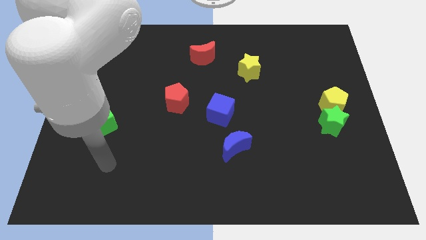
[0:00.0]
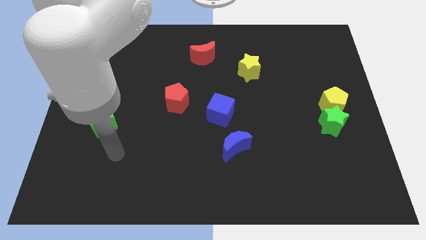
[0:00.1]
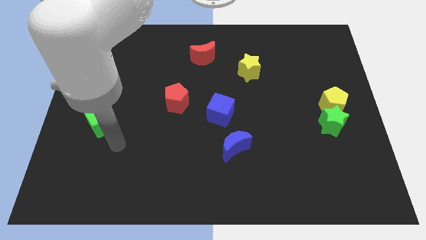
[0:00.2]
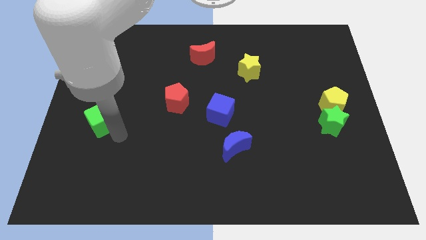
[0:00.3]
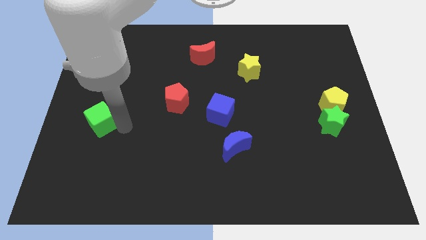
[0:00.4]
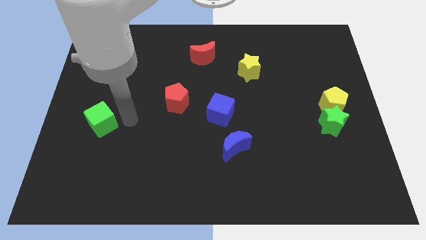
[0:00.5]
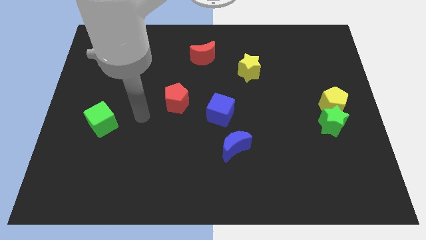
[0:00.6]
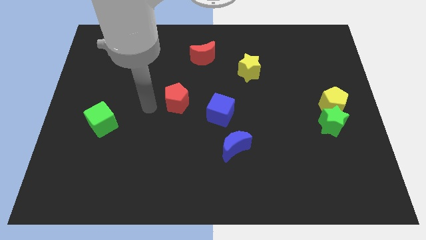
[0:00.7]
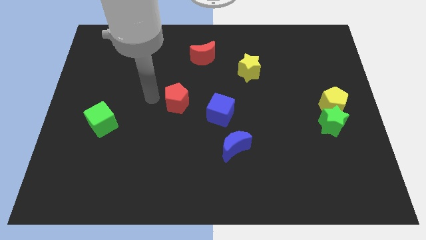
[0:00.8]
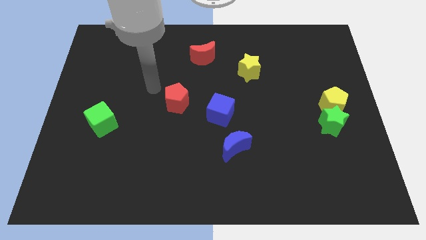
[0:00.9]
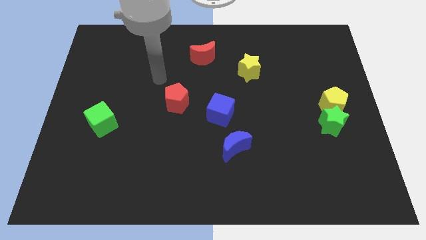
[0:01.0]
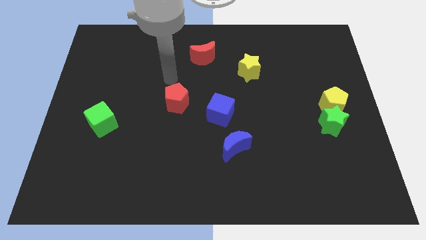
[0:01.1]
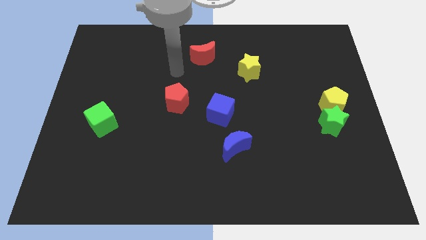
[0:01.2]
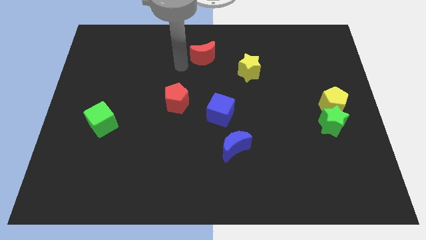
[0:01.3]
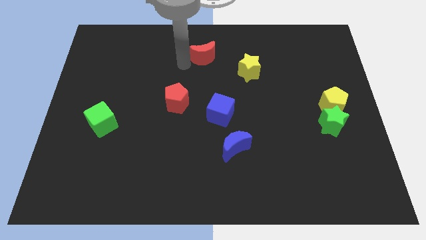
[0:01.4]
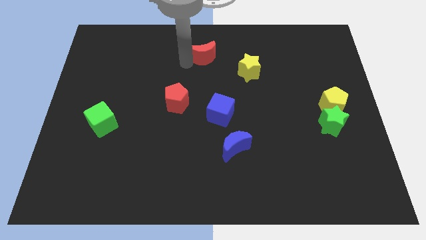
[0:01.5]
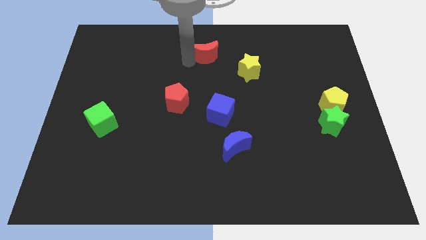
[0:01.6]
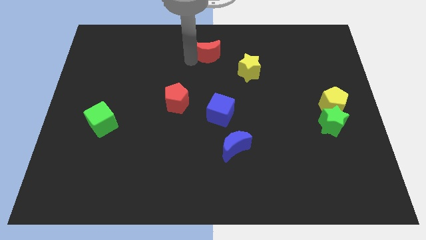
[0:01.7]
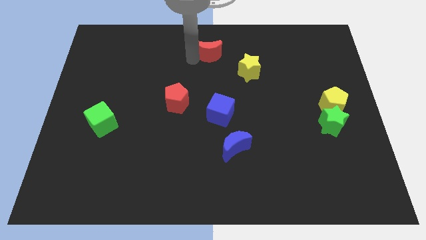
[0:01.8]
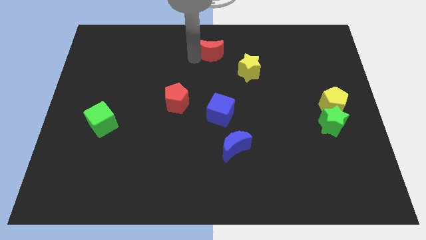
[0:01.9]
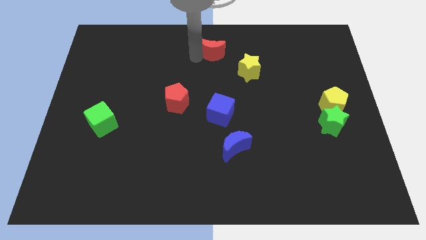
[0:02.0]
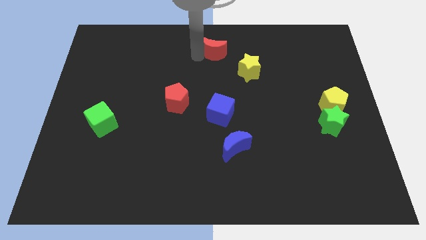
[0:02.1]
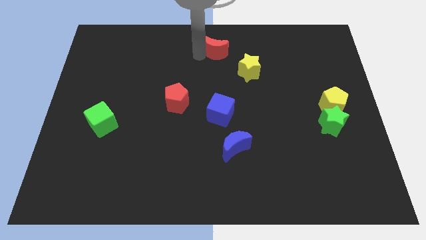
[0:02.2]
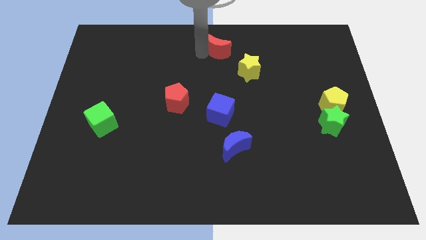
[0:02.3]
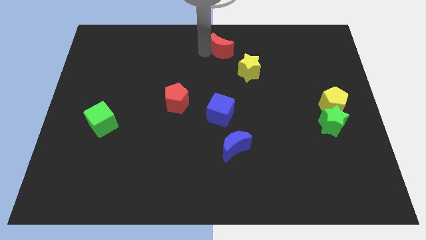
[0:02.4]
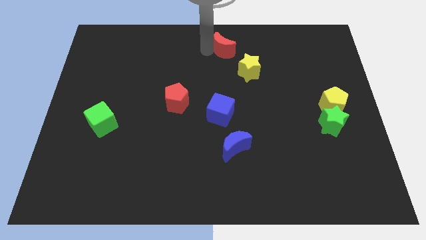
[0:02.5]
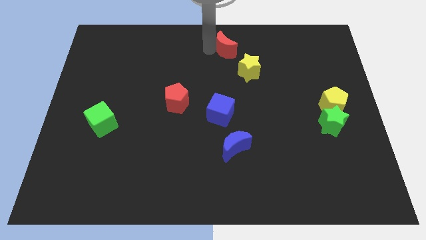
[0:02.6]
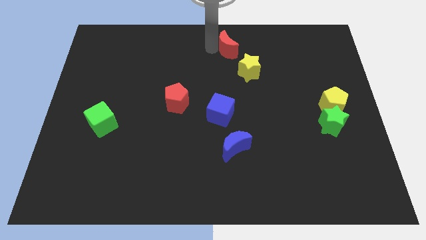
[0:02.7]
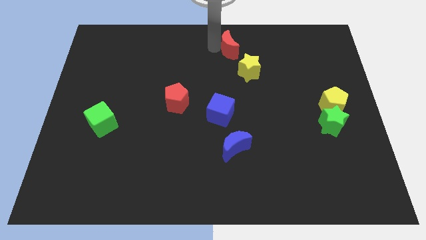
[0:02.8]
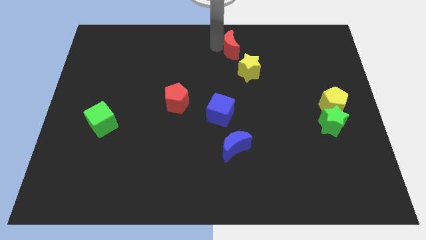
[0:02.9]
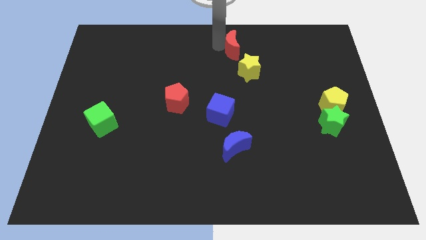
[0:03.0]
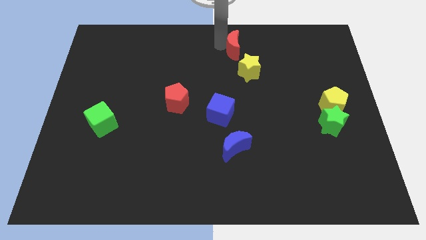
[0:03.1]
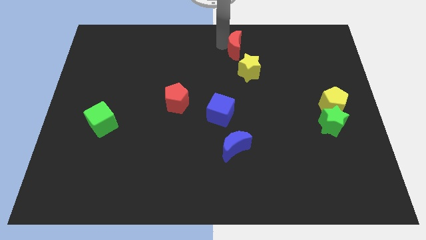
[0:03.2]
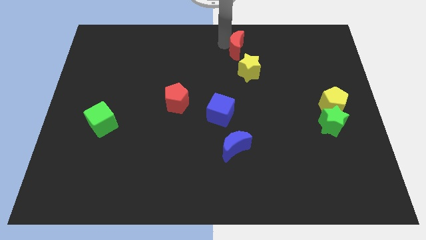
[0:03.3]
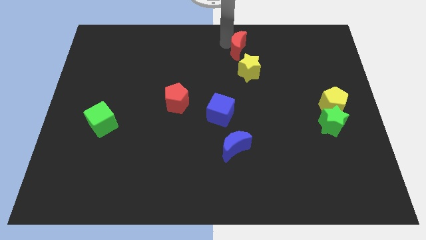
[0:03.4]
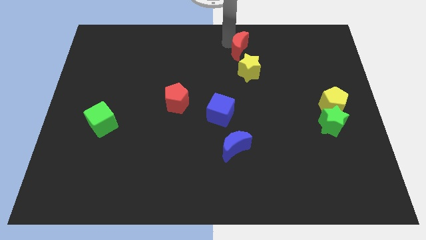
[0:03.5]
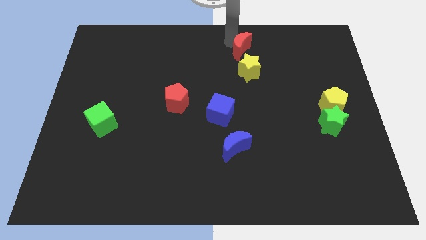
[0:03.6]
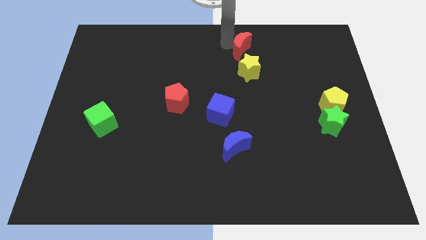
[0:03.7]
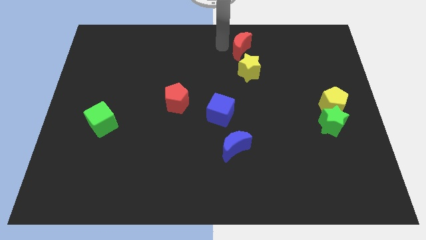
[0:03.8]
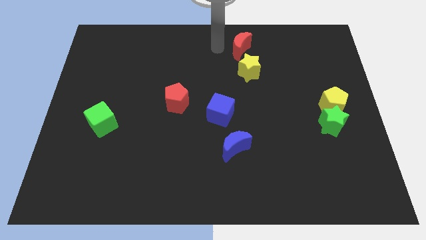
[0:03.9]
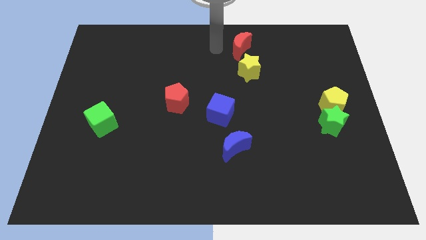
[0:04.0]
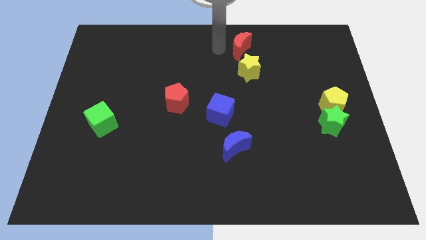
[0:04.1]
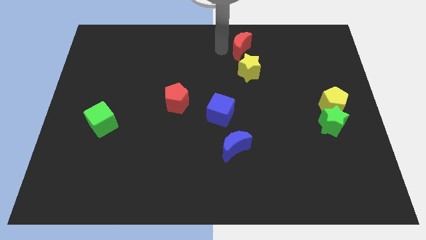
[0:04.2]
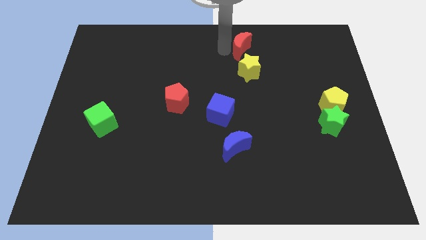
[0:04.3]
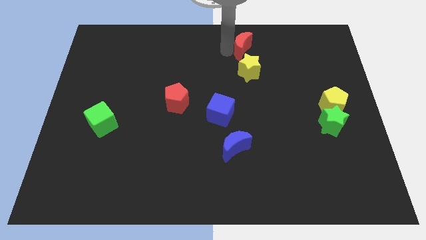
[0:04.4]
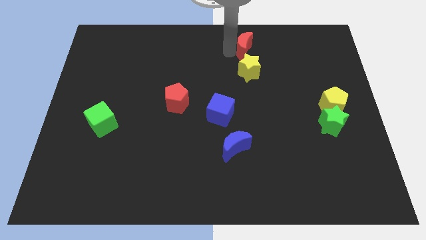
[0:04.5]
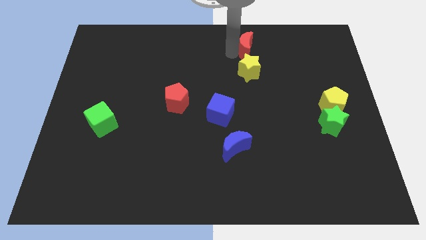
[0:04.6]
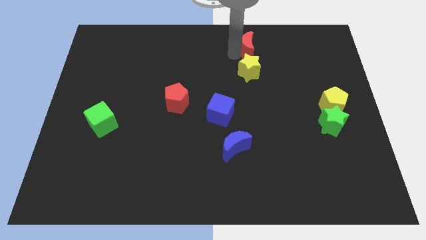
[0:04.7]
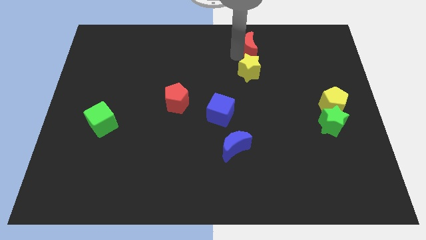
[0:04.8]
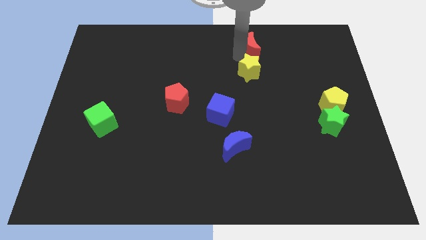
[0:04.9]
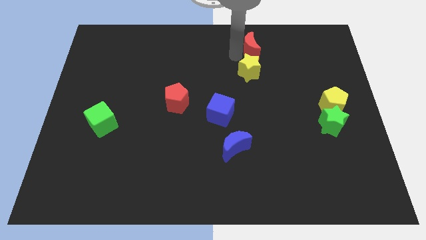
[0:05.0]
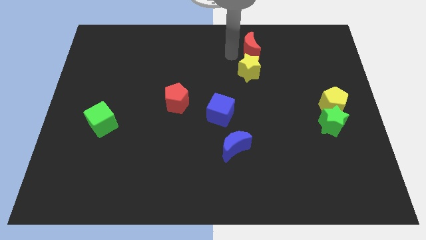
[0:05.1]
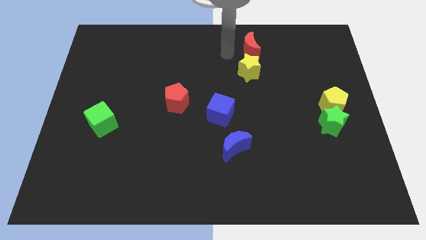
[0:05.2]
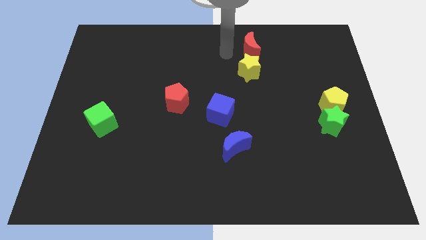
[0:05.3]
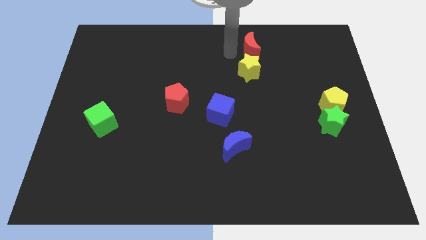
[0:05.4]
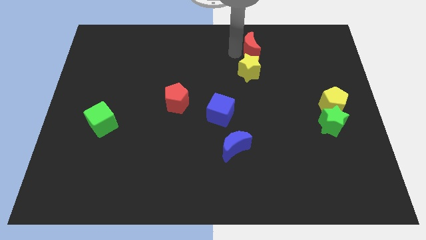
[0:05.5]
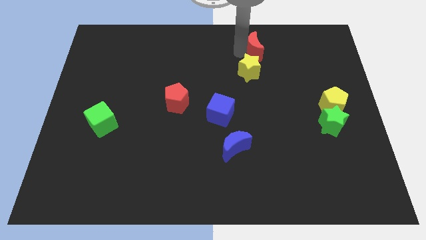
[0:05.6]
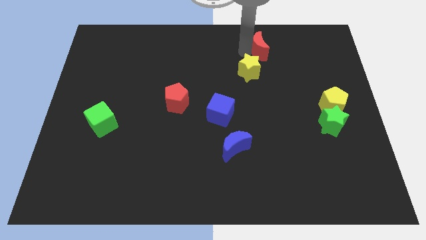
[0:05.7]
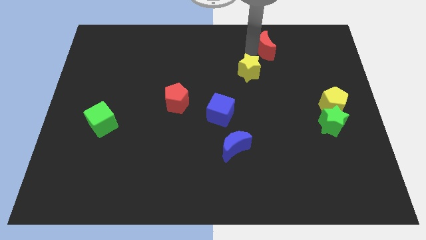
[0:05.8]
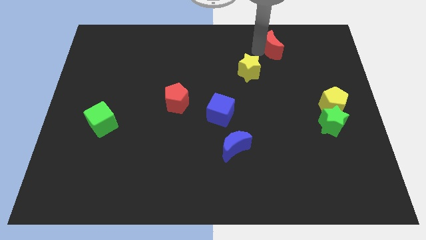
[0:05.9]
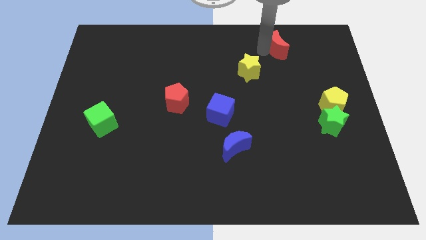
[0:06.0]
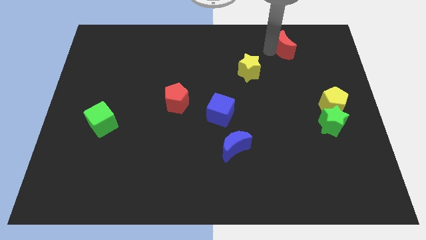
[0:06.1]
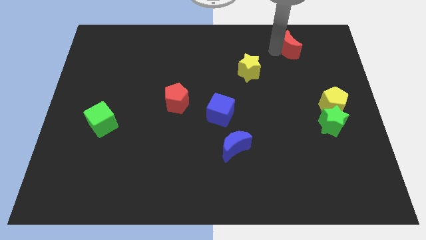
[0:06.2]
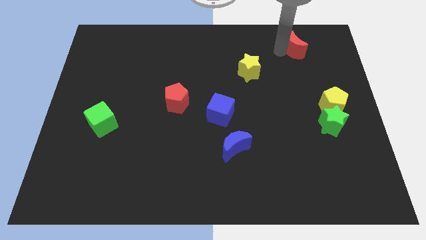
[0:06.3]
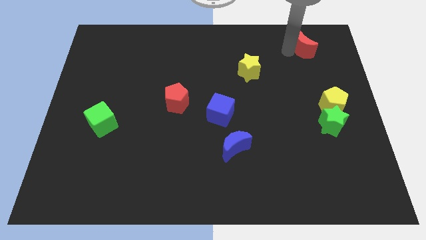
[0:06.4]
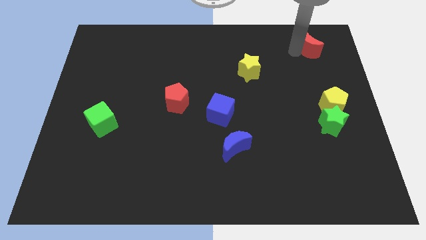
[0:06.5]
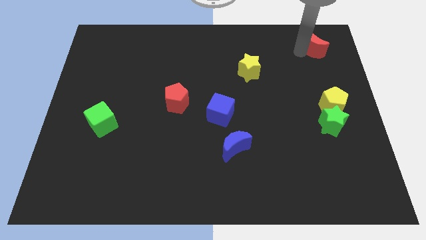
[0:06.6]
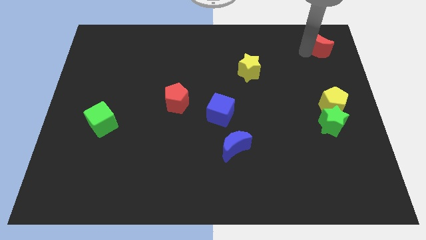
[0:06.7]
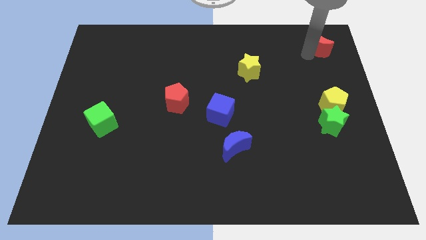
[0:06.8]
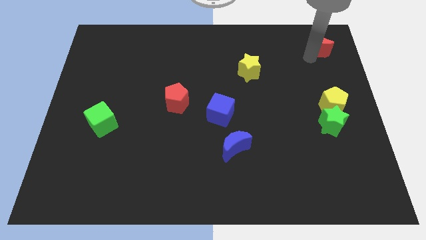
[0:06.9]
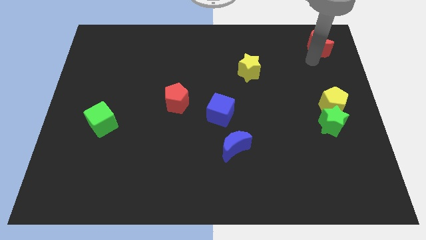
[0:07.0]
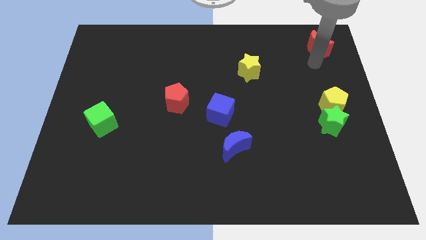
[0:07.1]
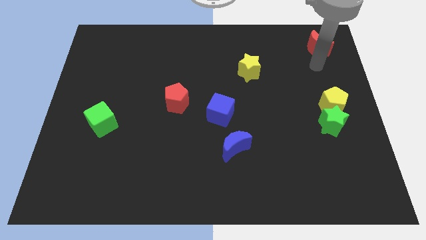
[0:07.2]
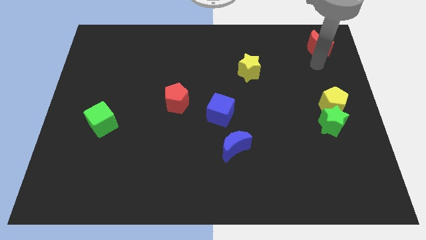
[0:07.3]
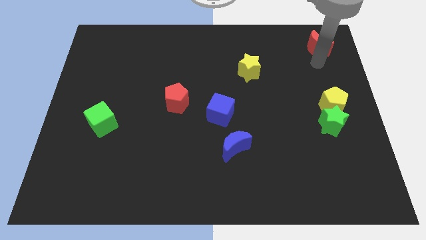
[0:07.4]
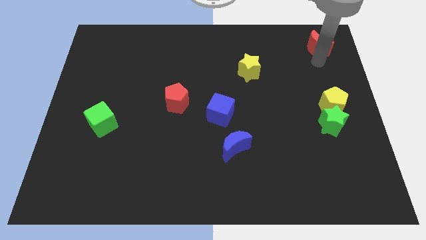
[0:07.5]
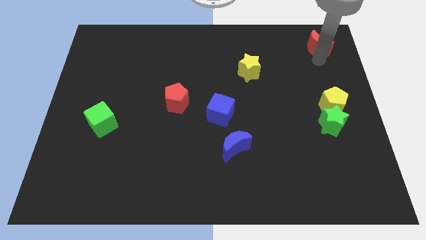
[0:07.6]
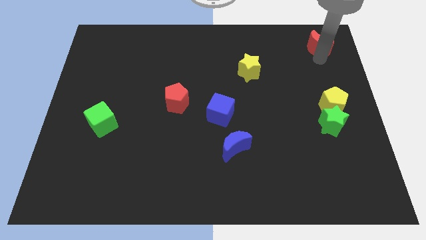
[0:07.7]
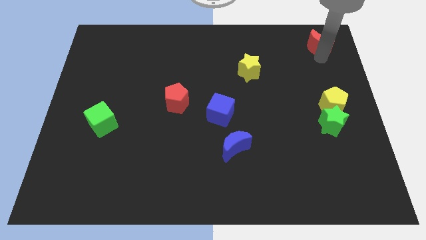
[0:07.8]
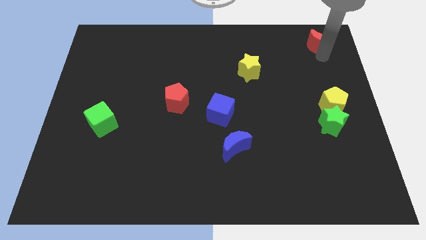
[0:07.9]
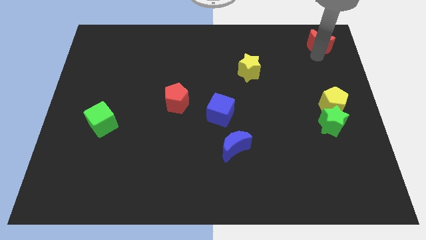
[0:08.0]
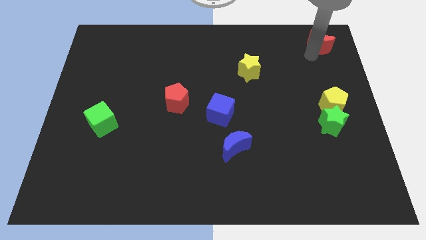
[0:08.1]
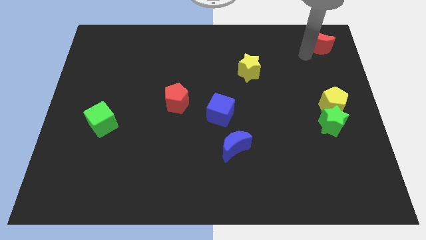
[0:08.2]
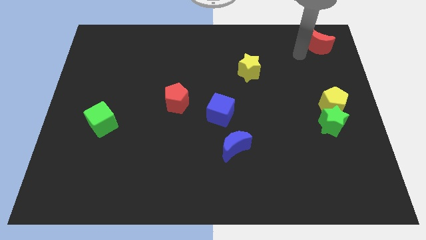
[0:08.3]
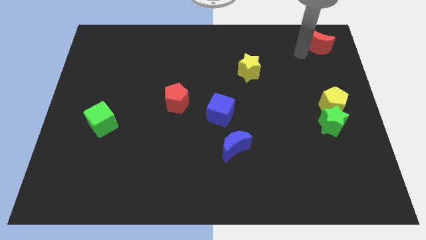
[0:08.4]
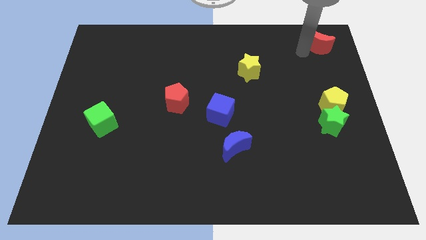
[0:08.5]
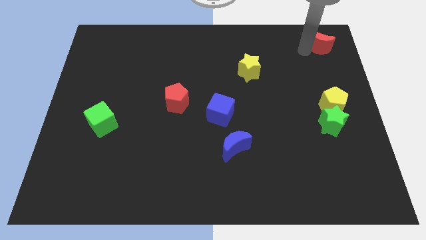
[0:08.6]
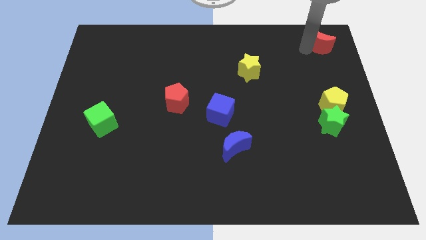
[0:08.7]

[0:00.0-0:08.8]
move the red moon to the top right of the board
